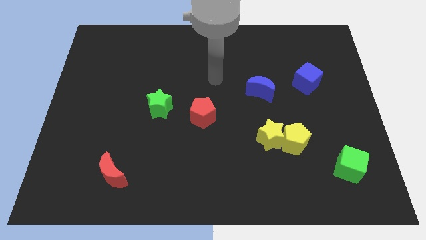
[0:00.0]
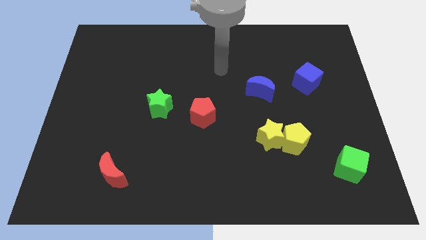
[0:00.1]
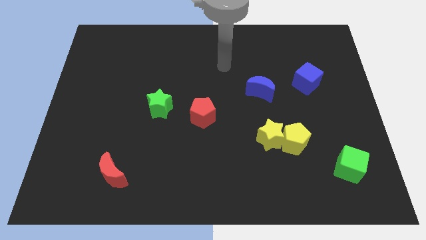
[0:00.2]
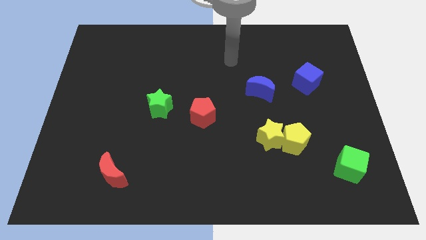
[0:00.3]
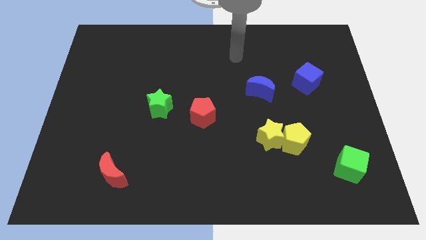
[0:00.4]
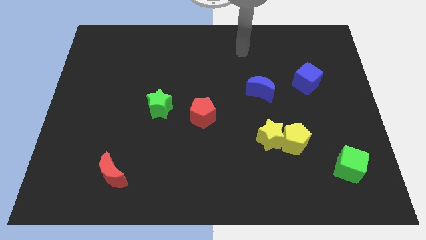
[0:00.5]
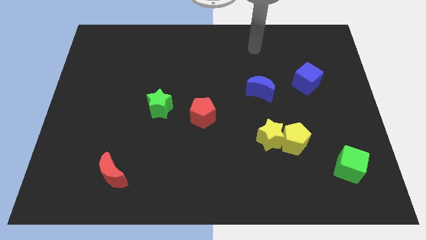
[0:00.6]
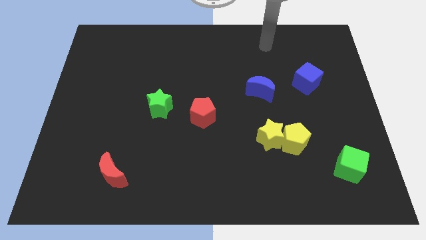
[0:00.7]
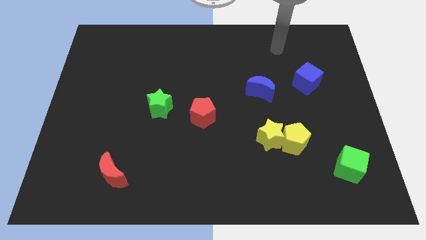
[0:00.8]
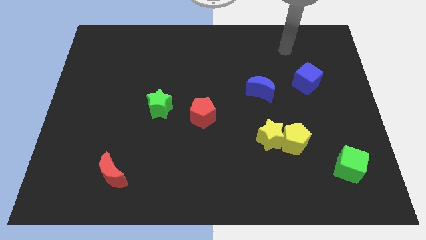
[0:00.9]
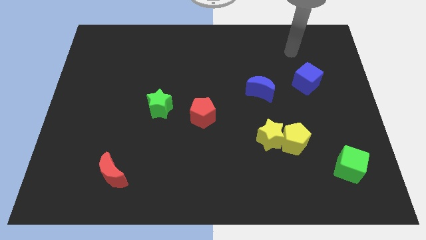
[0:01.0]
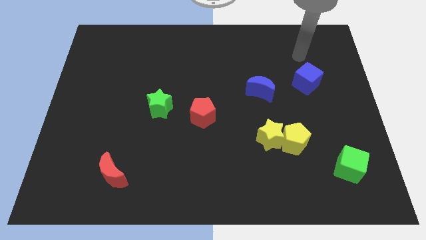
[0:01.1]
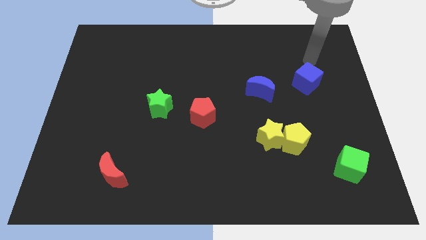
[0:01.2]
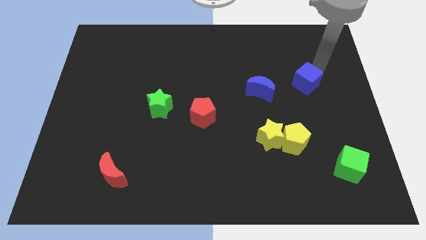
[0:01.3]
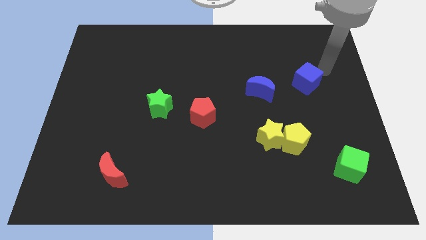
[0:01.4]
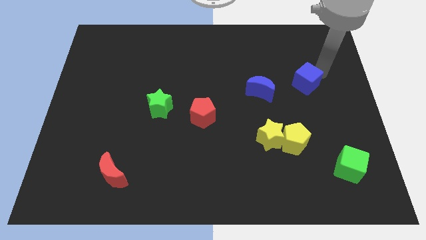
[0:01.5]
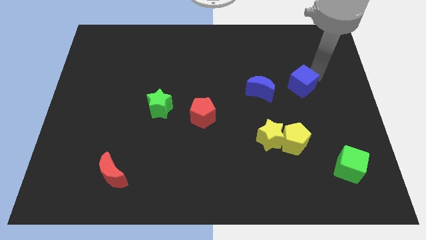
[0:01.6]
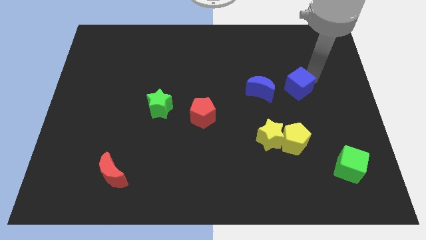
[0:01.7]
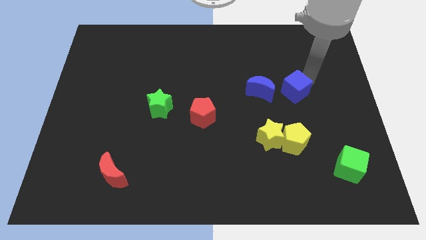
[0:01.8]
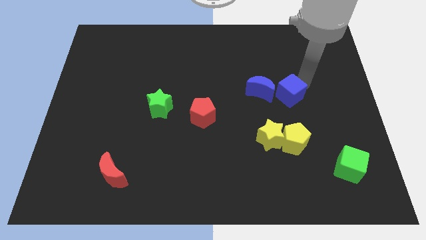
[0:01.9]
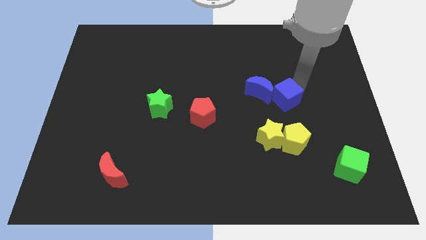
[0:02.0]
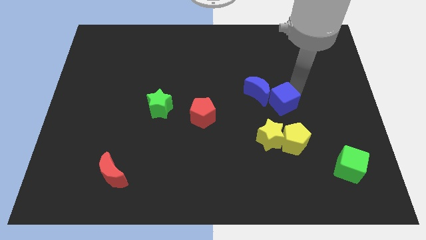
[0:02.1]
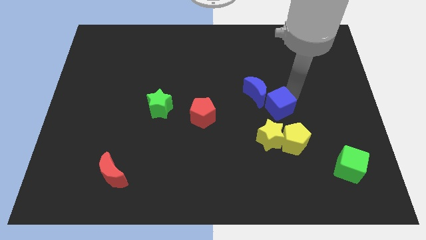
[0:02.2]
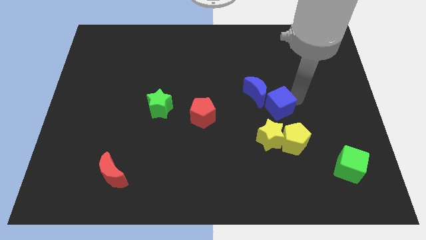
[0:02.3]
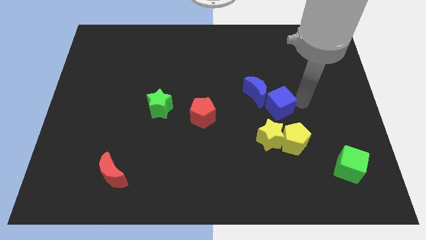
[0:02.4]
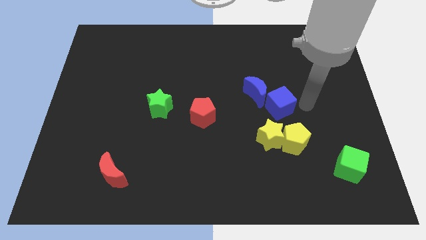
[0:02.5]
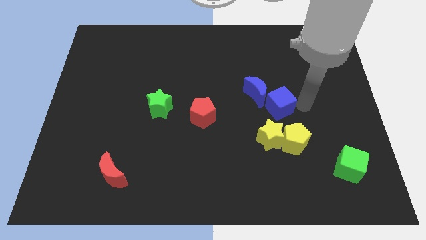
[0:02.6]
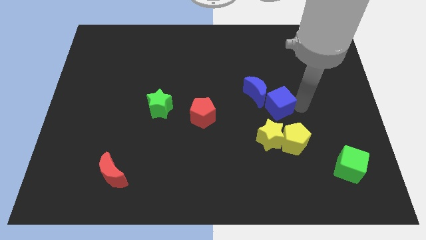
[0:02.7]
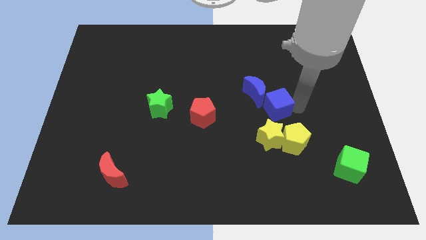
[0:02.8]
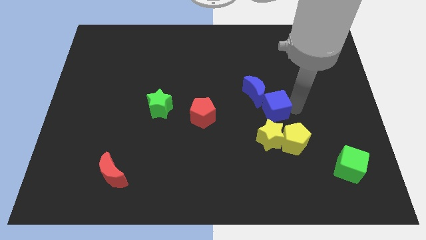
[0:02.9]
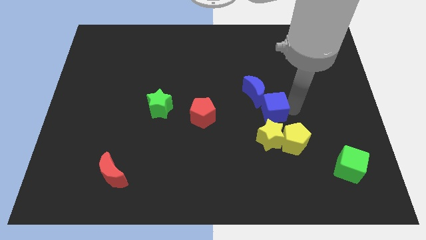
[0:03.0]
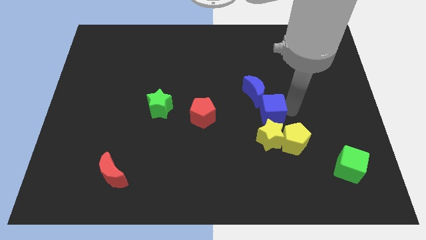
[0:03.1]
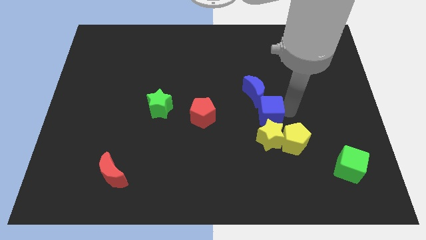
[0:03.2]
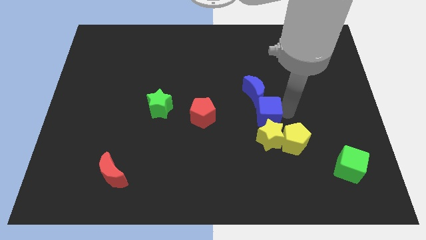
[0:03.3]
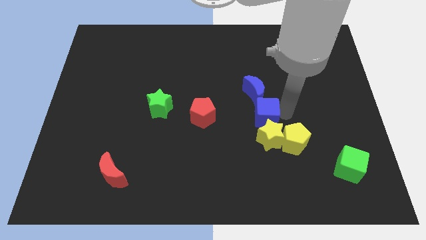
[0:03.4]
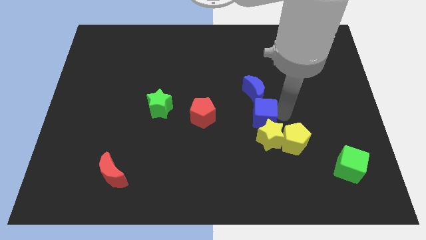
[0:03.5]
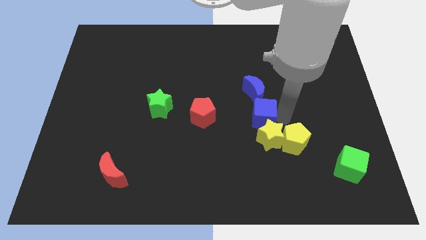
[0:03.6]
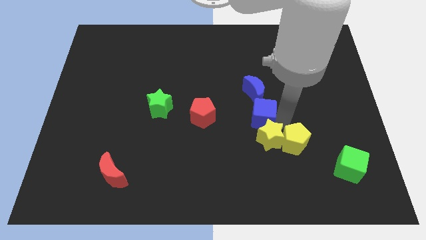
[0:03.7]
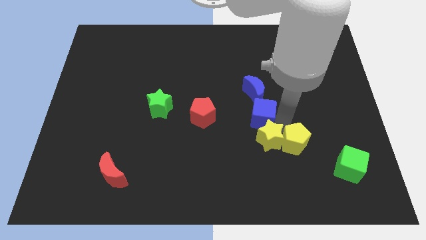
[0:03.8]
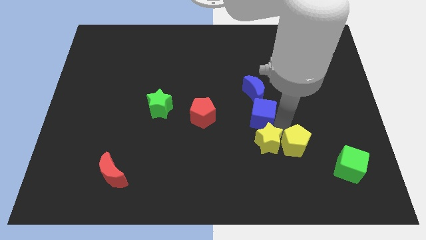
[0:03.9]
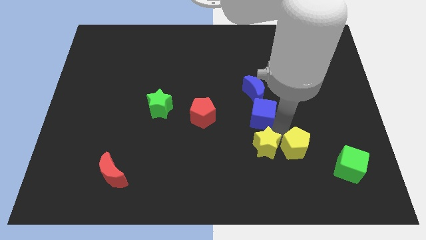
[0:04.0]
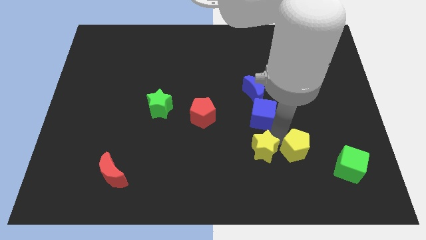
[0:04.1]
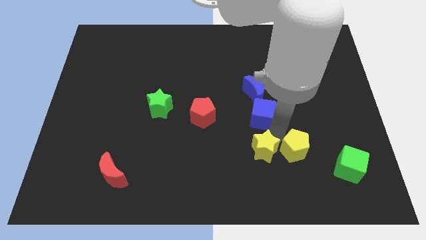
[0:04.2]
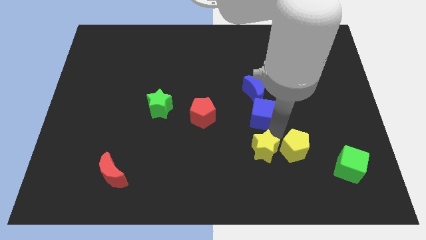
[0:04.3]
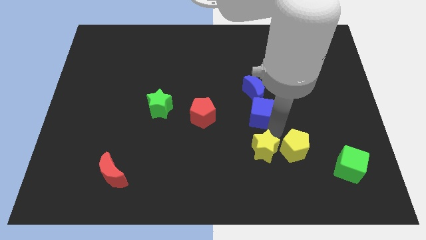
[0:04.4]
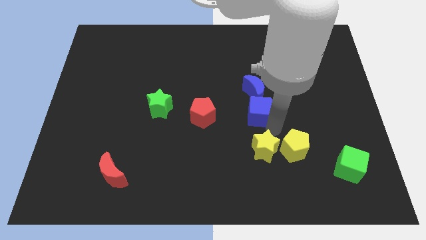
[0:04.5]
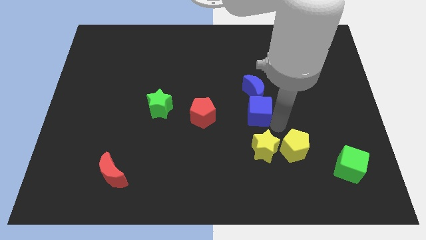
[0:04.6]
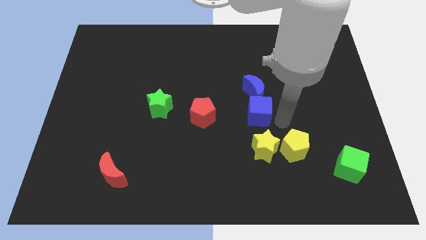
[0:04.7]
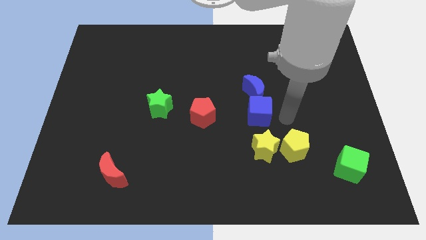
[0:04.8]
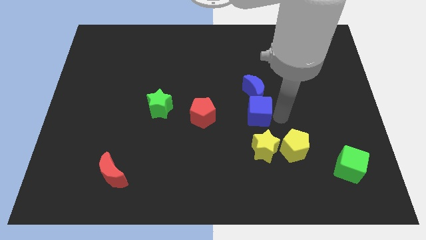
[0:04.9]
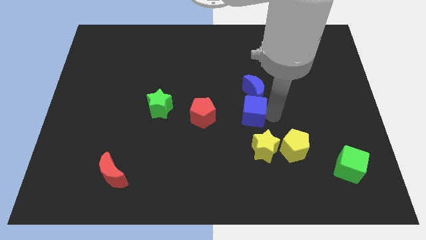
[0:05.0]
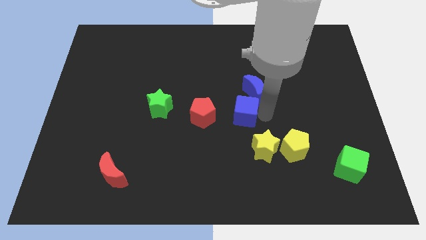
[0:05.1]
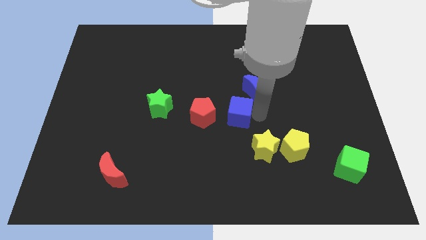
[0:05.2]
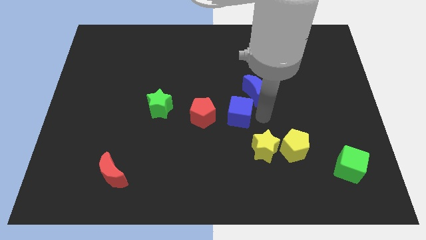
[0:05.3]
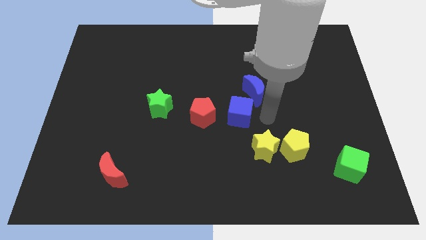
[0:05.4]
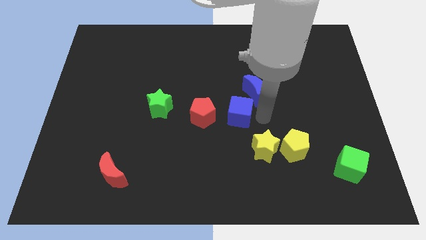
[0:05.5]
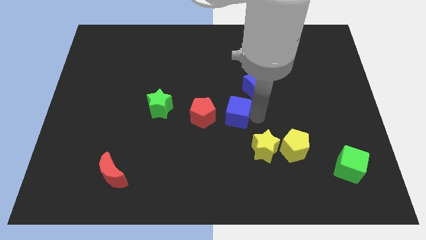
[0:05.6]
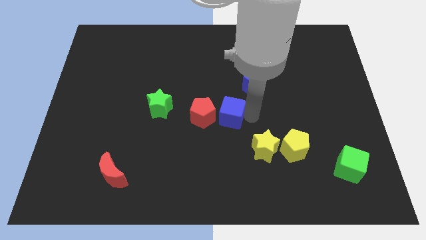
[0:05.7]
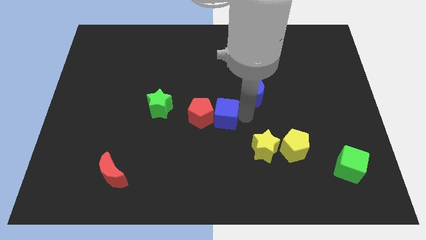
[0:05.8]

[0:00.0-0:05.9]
put the blue cube to the red pentagon

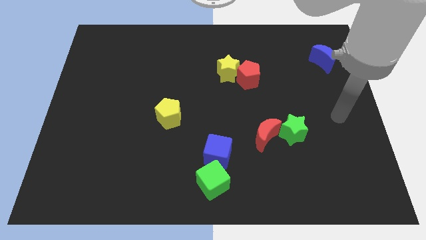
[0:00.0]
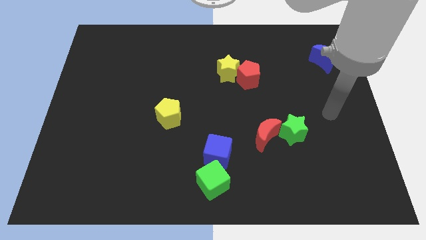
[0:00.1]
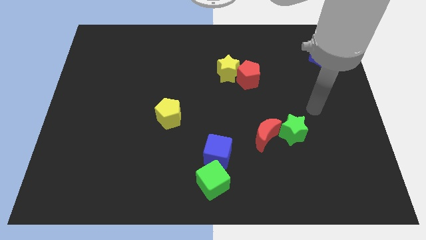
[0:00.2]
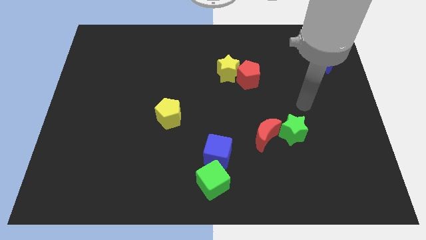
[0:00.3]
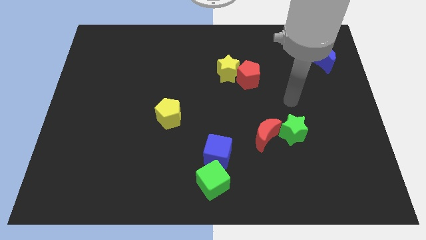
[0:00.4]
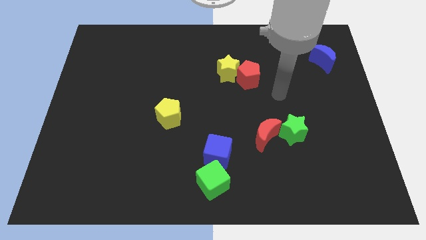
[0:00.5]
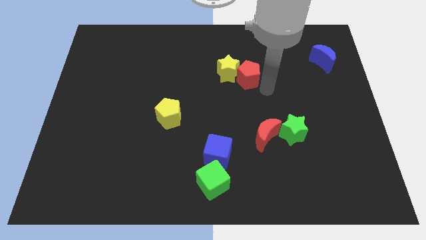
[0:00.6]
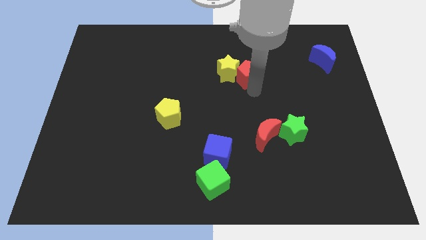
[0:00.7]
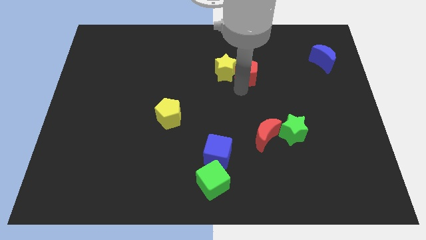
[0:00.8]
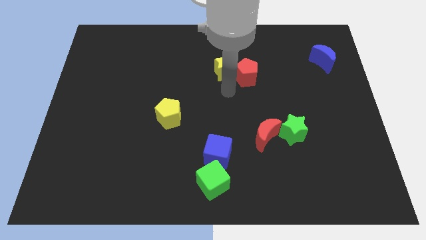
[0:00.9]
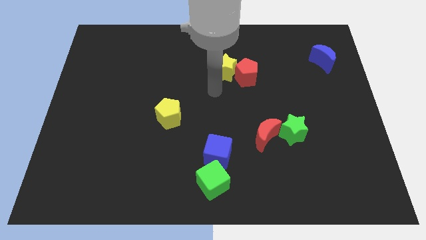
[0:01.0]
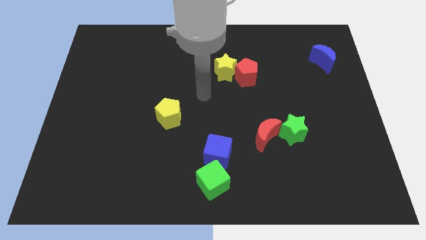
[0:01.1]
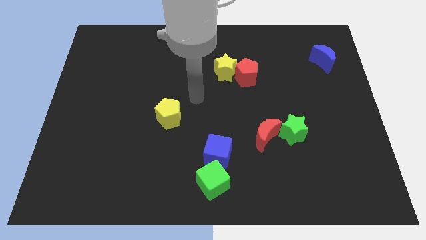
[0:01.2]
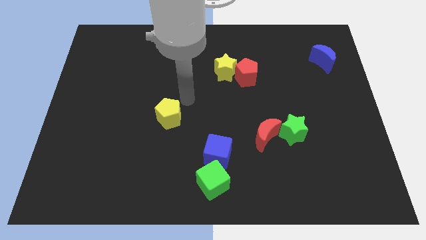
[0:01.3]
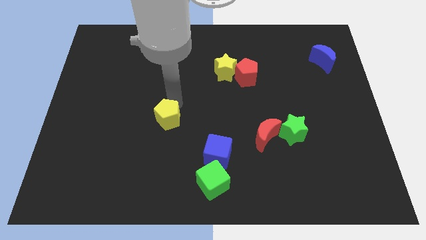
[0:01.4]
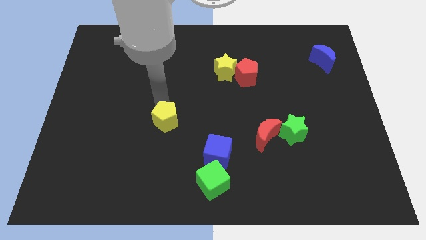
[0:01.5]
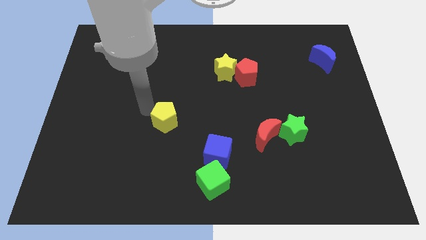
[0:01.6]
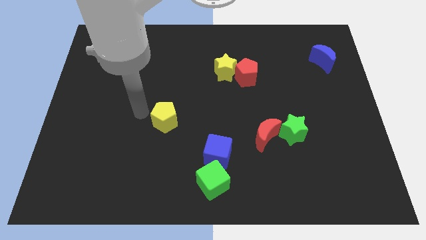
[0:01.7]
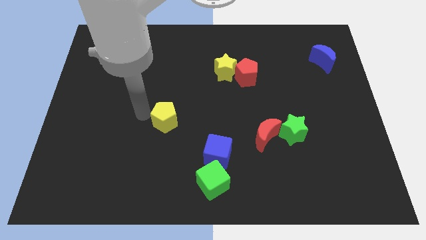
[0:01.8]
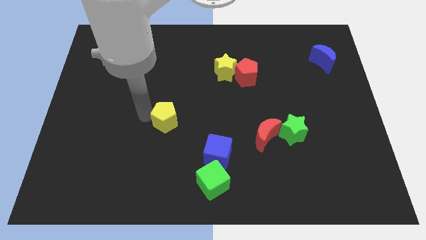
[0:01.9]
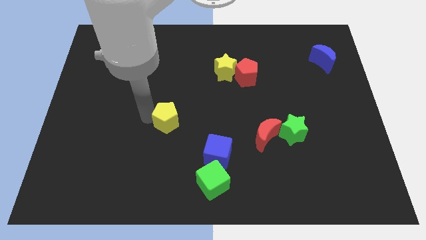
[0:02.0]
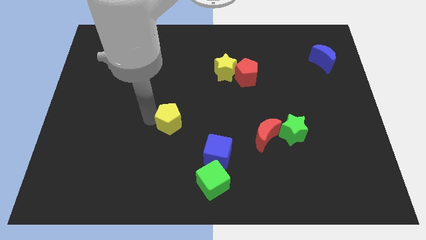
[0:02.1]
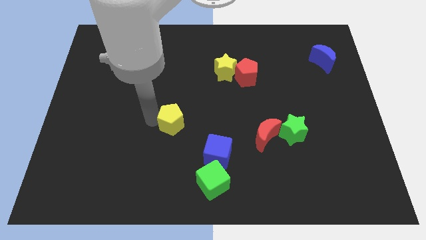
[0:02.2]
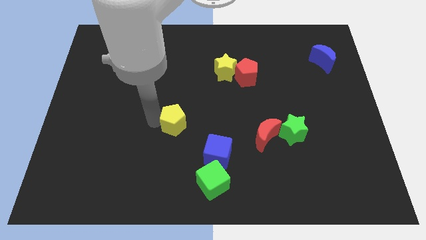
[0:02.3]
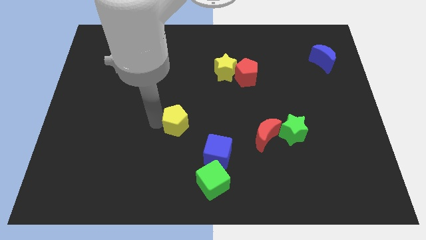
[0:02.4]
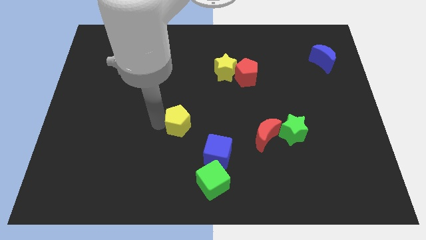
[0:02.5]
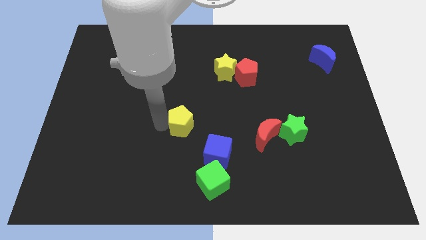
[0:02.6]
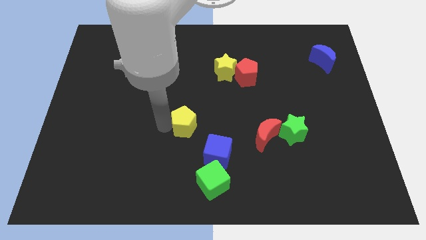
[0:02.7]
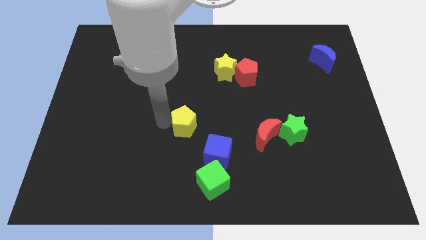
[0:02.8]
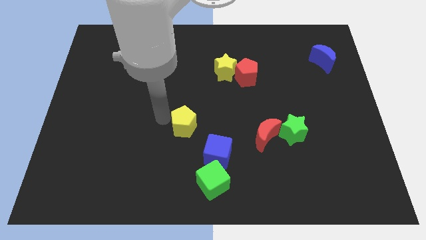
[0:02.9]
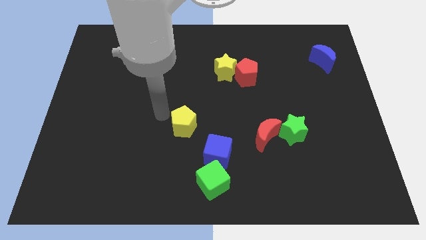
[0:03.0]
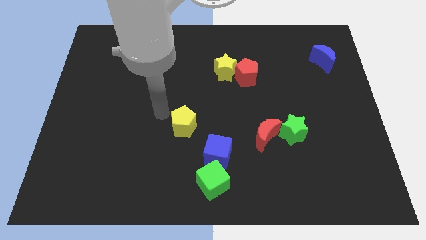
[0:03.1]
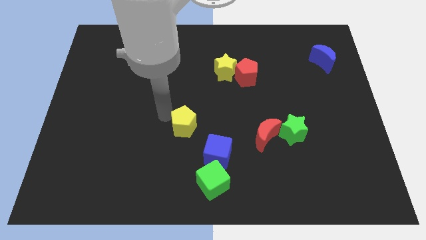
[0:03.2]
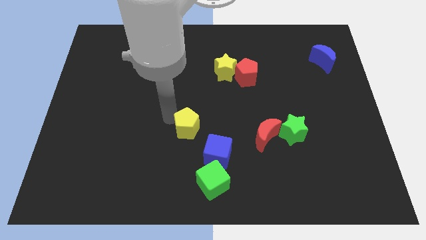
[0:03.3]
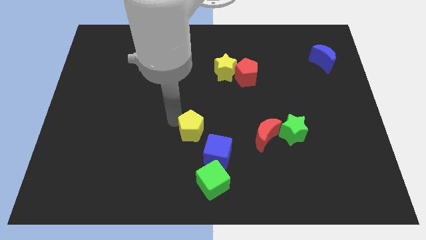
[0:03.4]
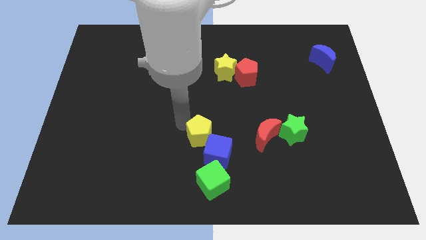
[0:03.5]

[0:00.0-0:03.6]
move the yellow pentagon close to the blue cube
